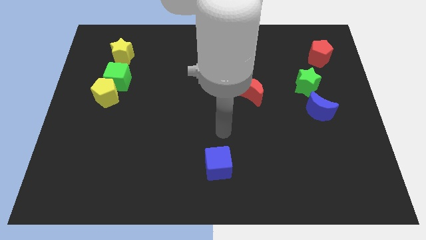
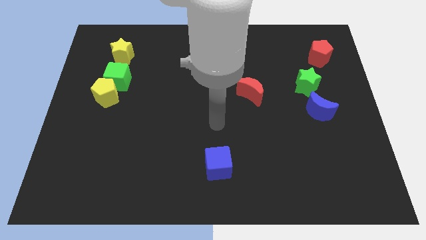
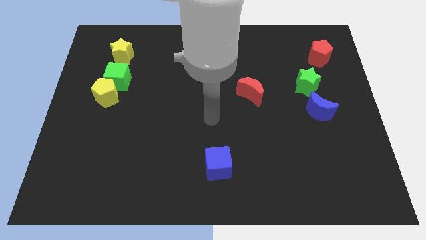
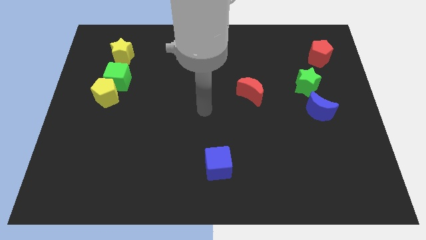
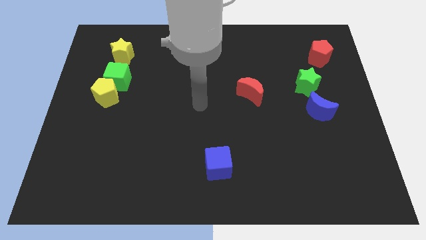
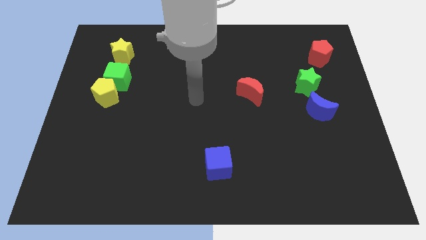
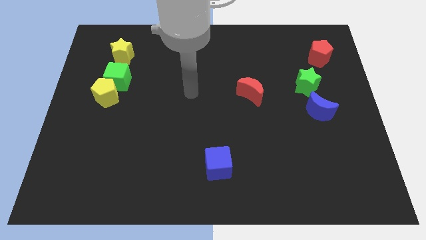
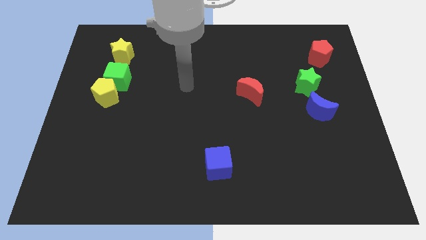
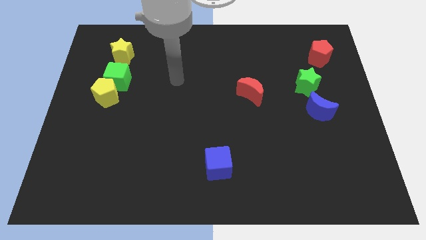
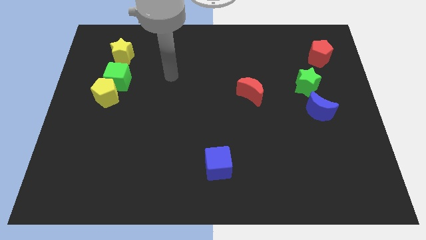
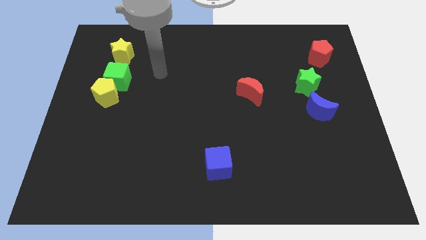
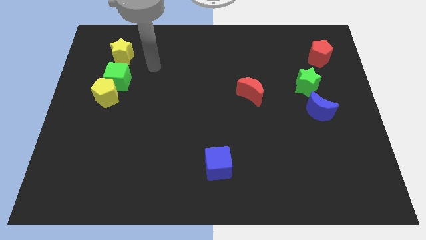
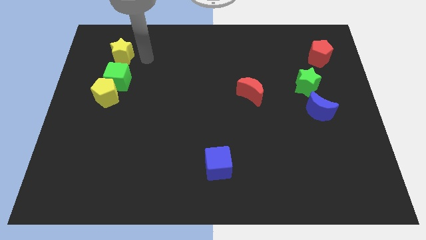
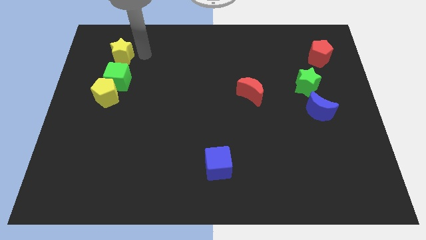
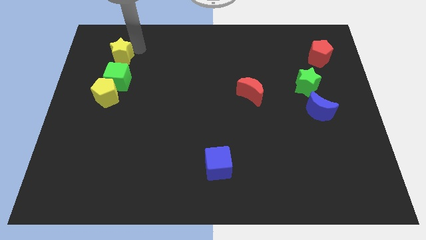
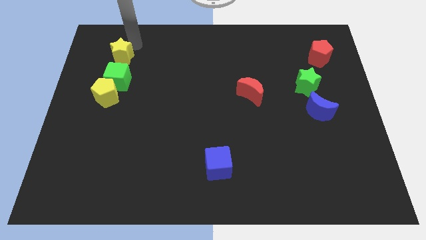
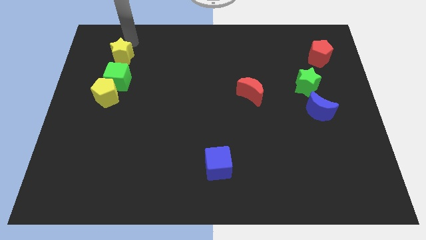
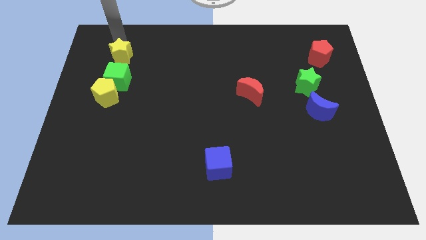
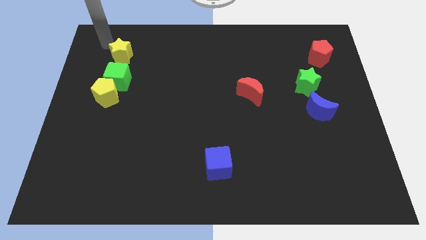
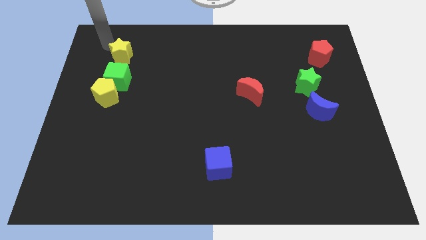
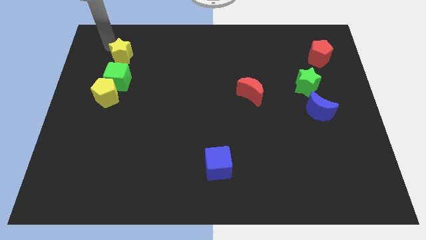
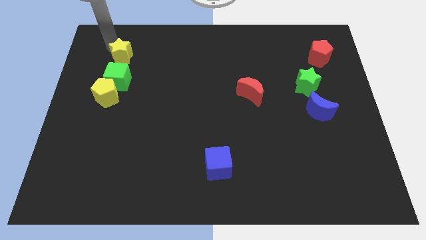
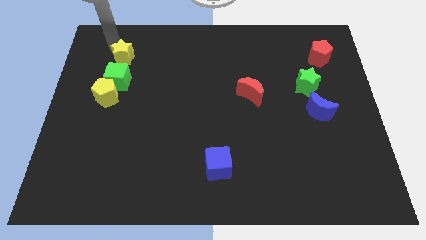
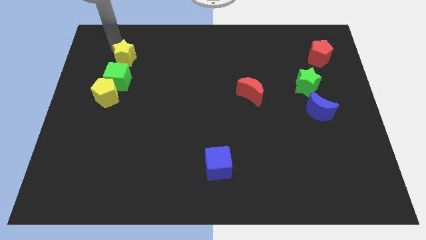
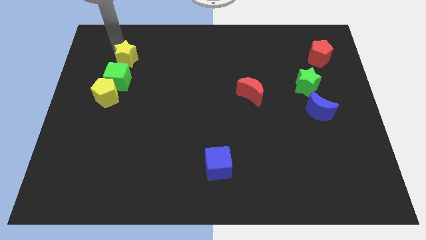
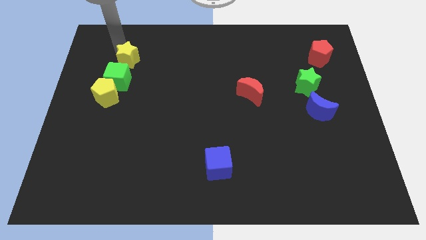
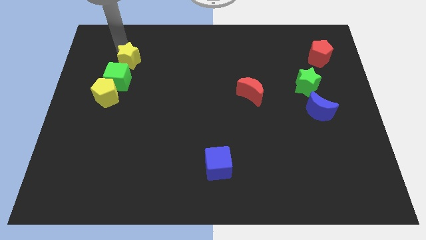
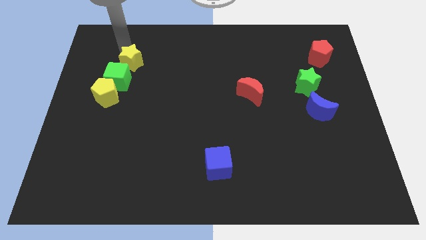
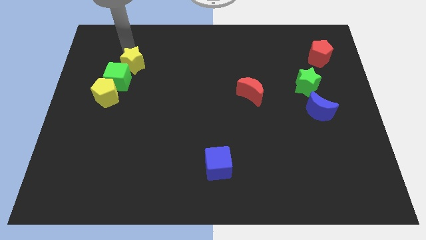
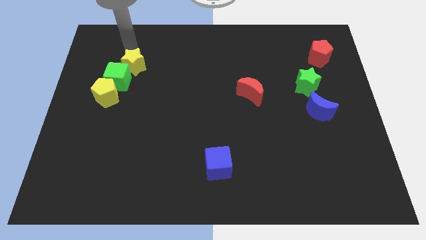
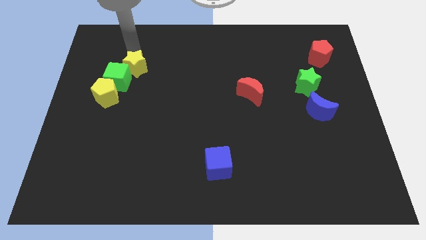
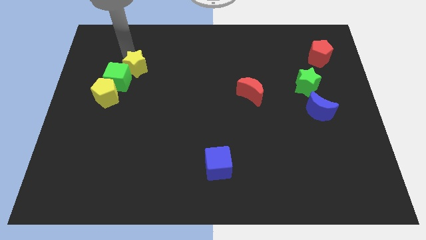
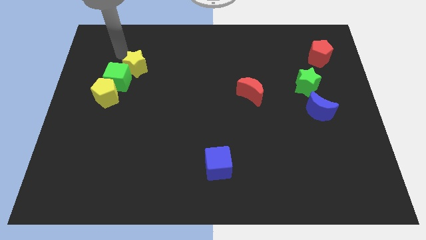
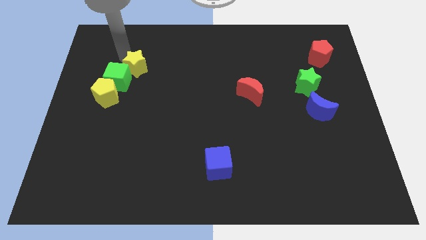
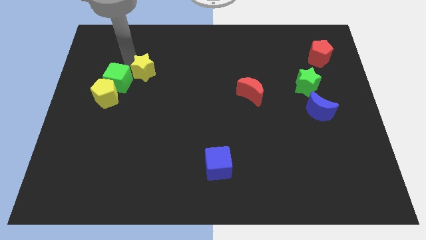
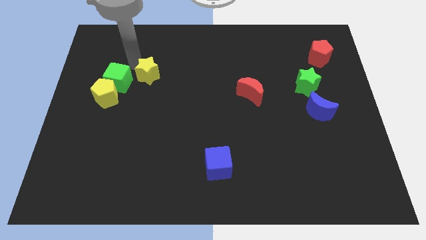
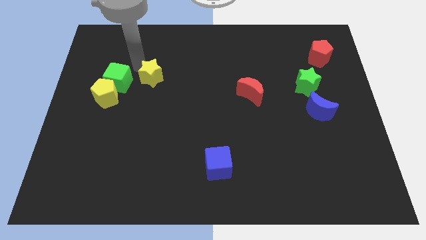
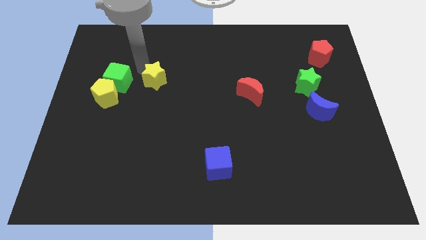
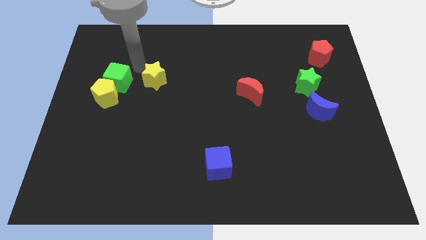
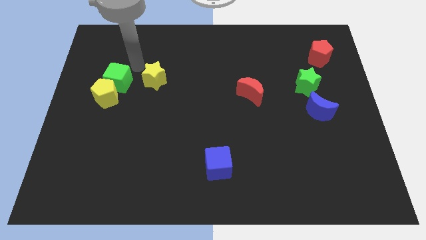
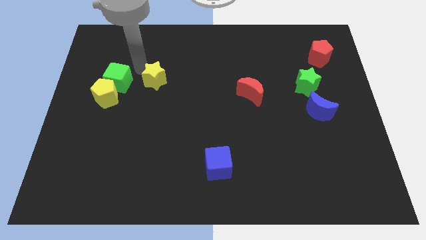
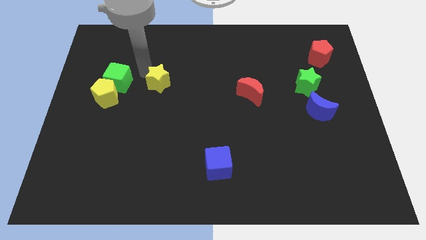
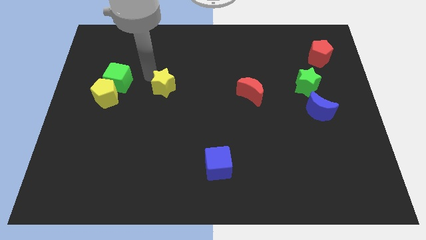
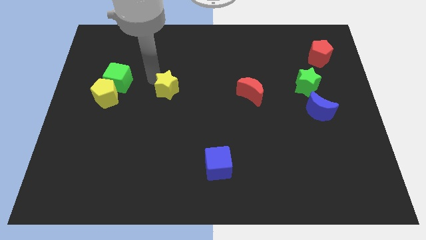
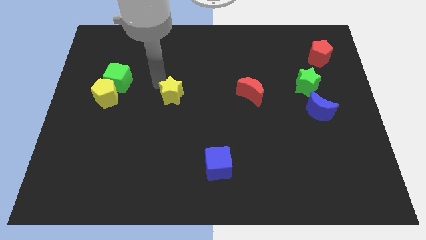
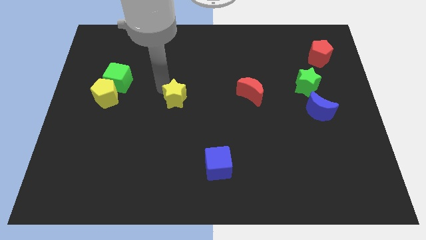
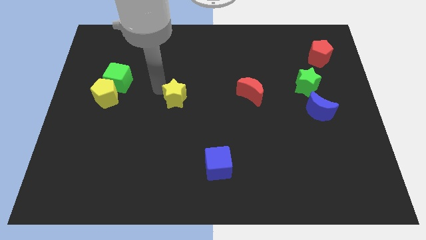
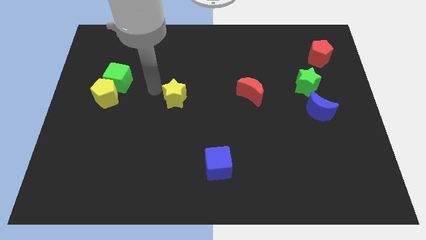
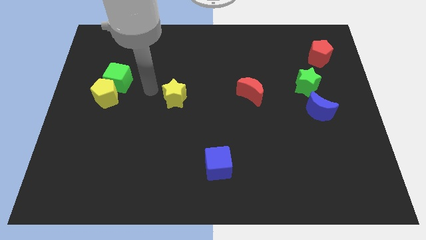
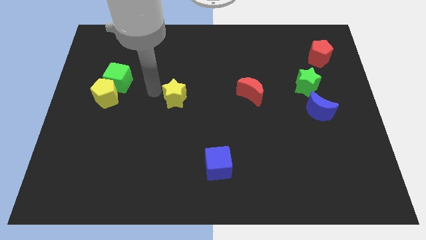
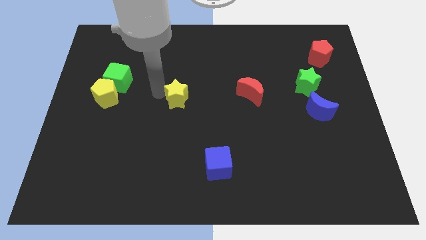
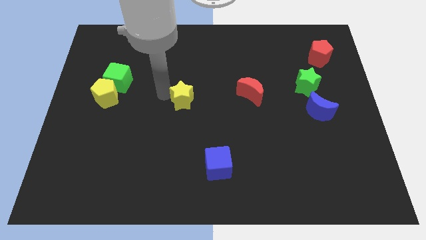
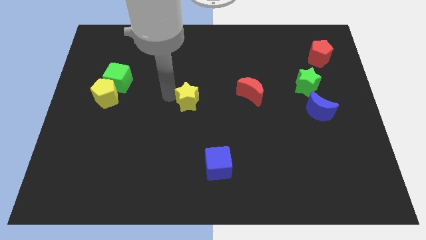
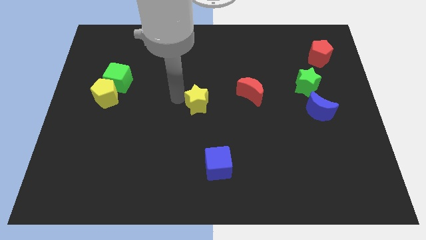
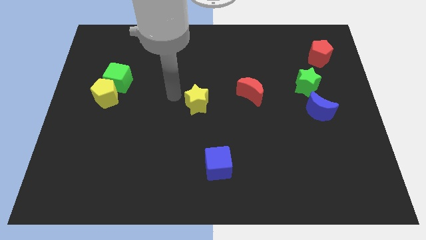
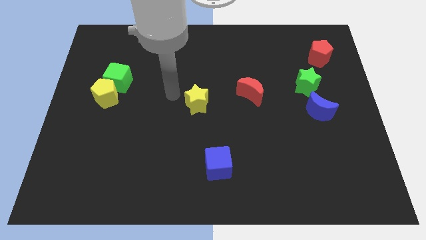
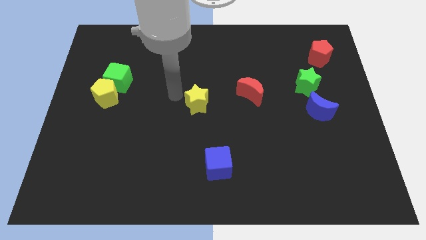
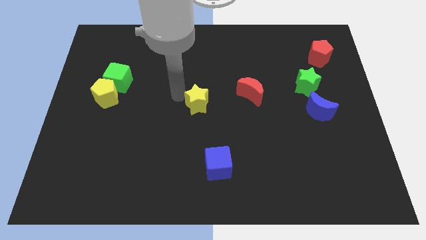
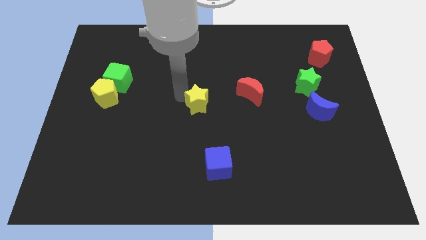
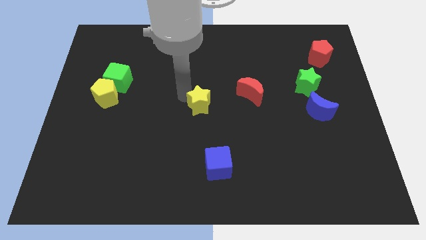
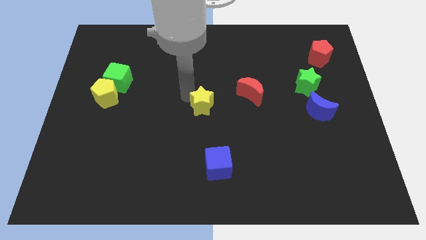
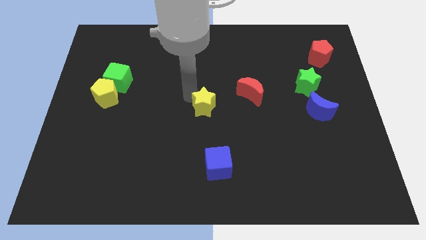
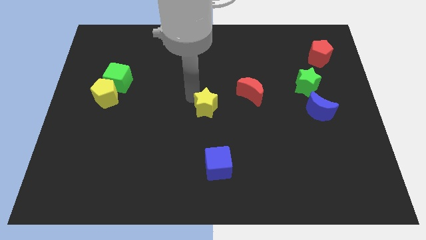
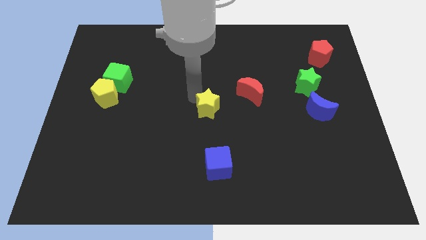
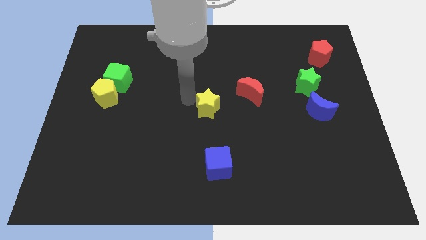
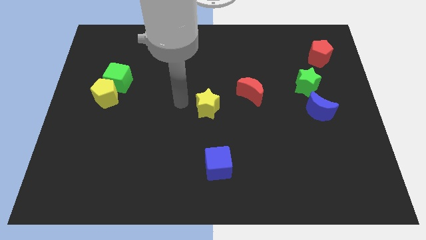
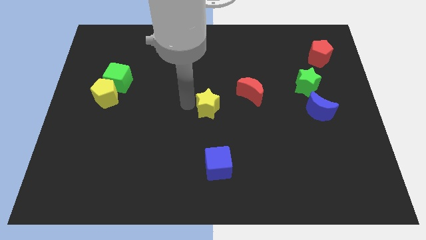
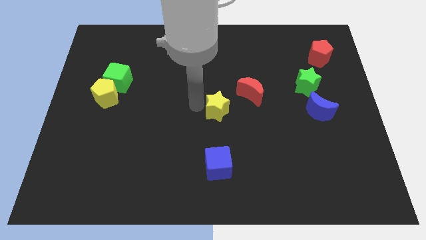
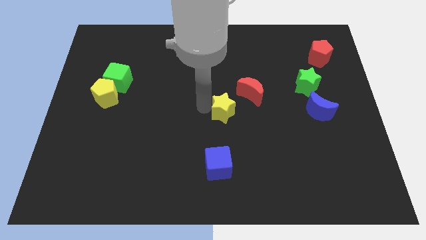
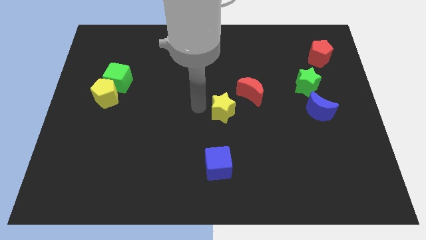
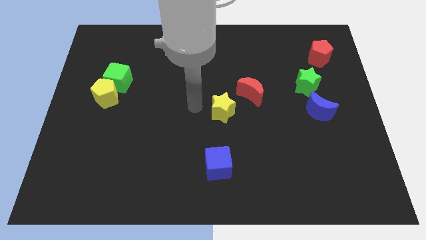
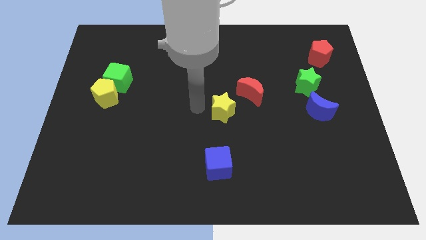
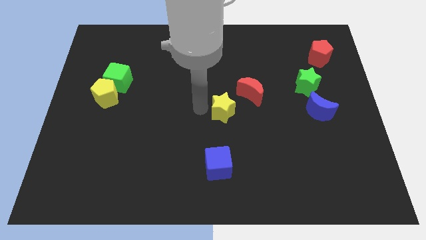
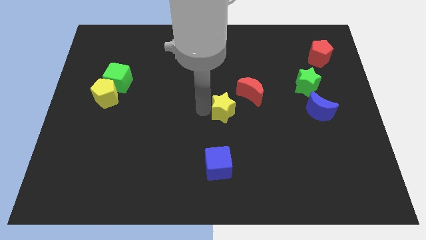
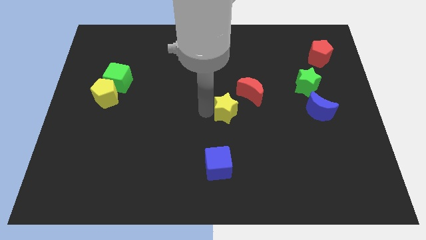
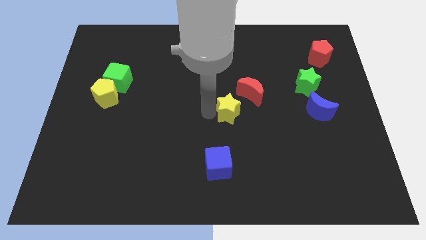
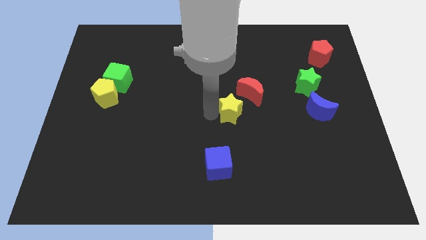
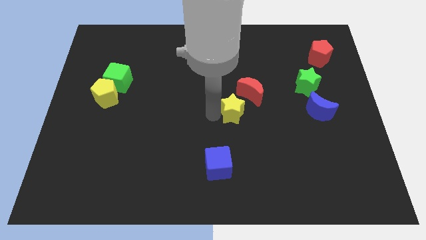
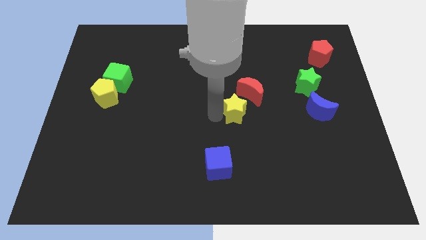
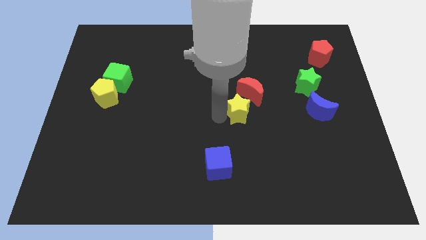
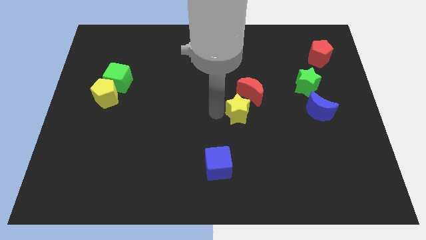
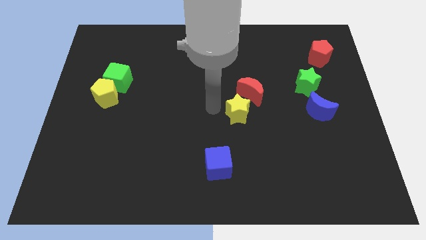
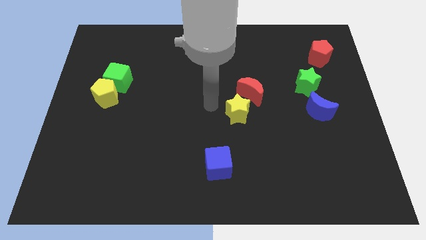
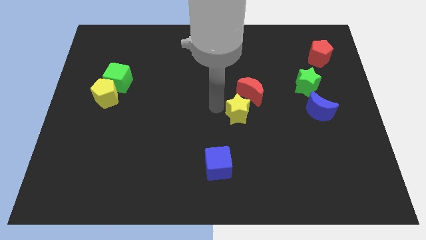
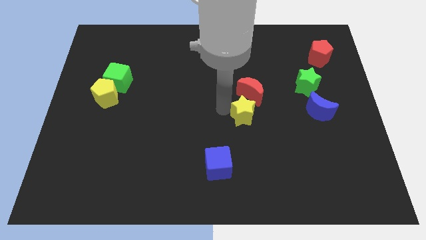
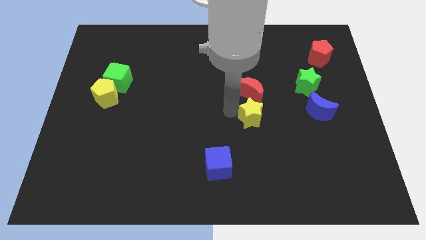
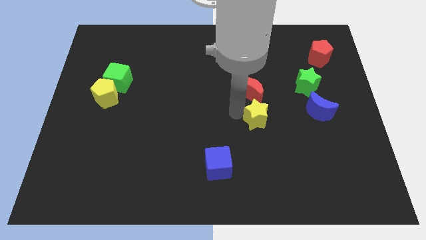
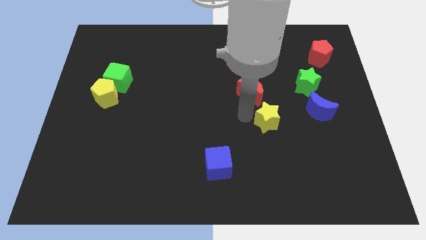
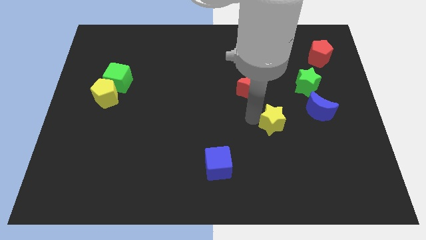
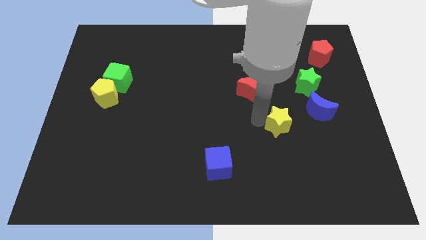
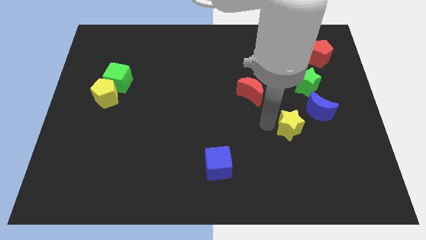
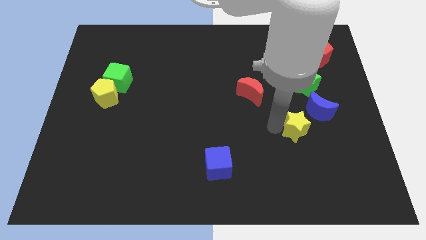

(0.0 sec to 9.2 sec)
move the yellow star to the bottom of the green star
